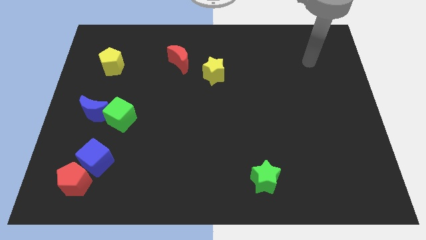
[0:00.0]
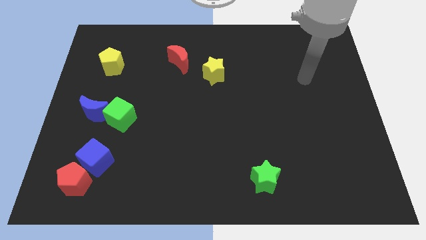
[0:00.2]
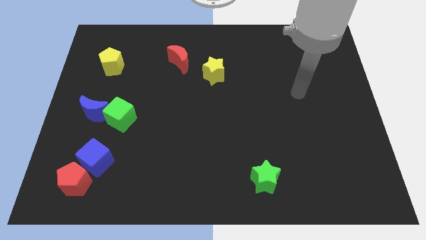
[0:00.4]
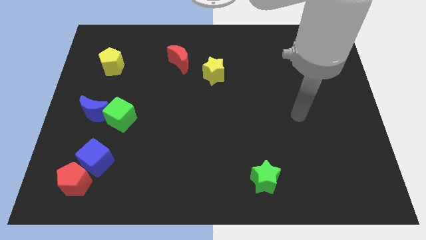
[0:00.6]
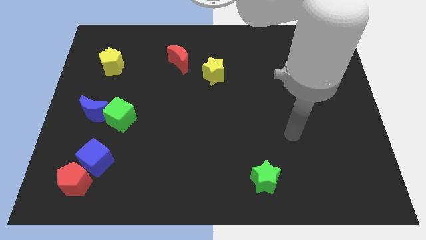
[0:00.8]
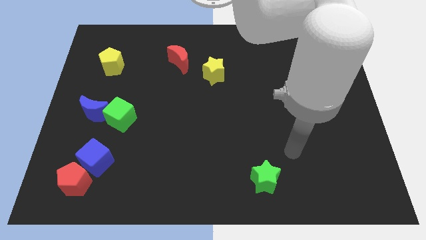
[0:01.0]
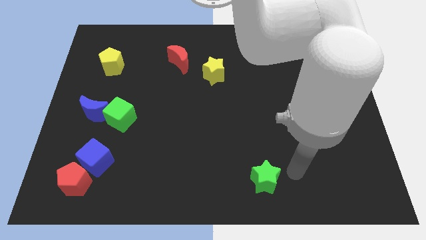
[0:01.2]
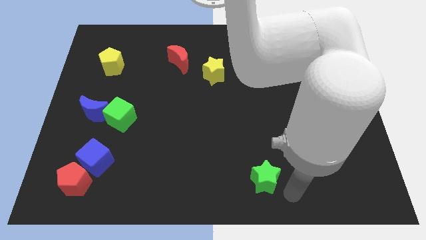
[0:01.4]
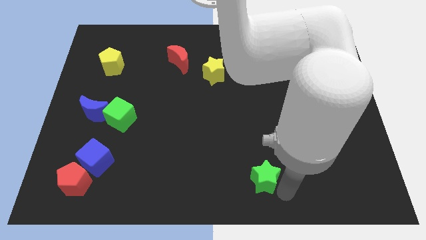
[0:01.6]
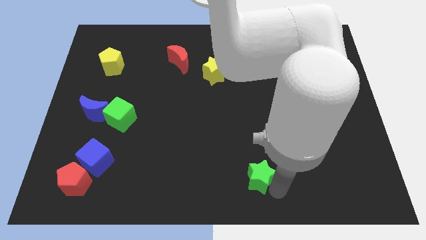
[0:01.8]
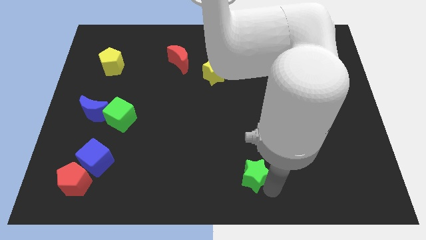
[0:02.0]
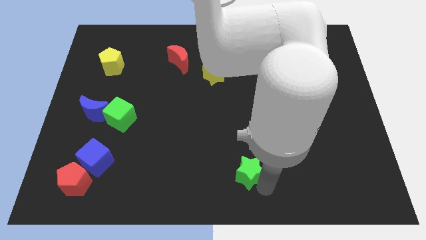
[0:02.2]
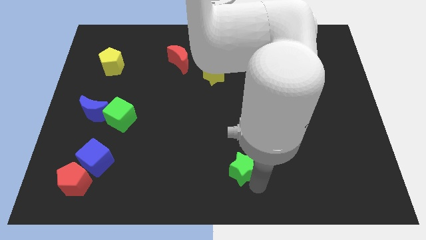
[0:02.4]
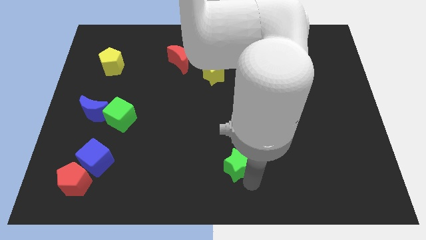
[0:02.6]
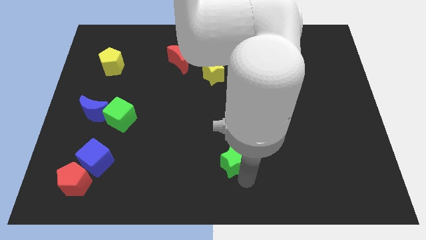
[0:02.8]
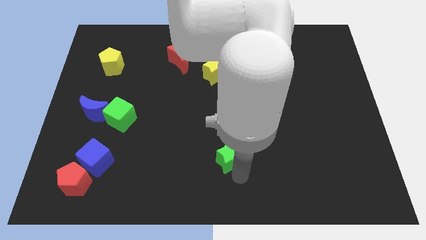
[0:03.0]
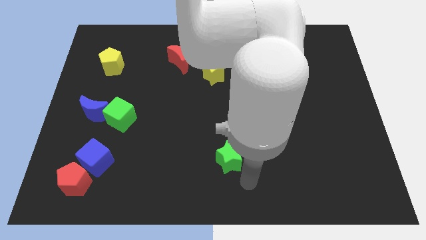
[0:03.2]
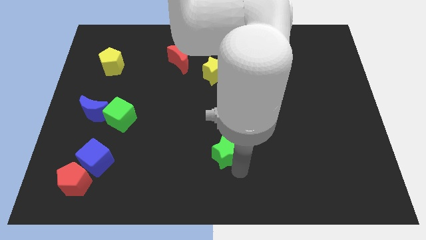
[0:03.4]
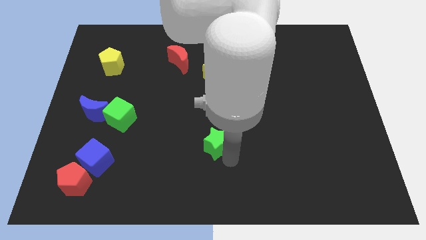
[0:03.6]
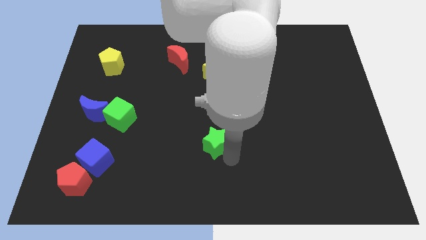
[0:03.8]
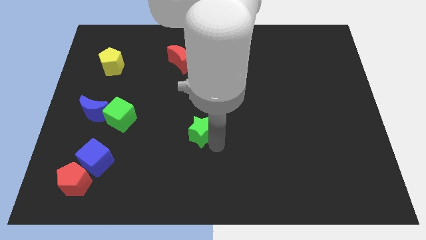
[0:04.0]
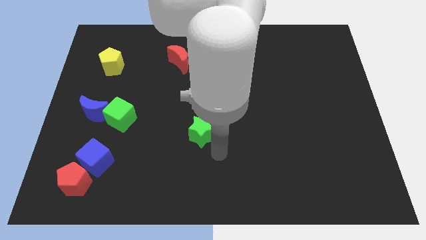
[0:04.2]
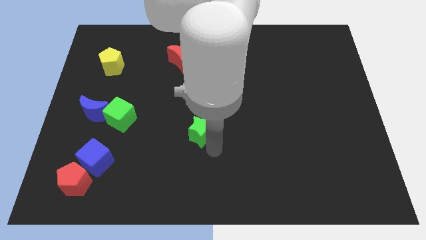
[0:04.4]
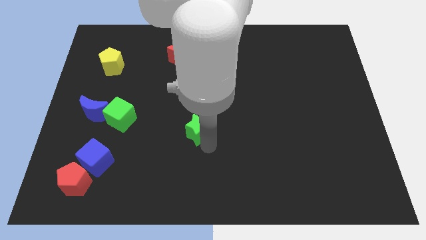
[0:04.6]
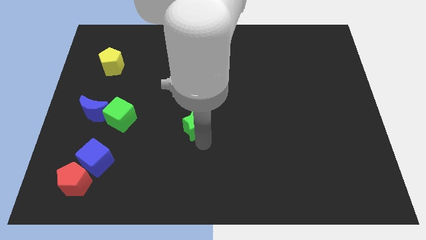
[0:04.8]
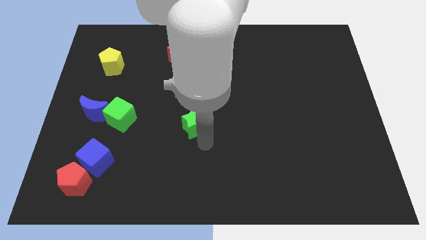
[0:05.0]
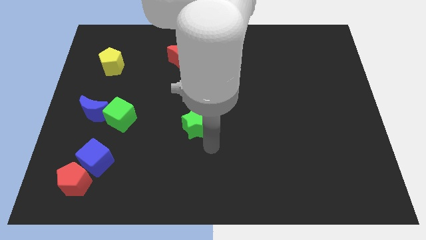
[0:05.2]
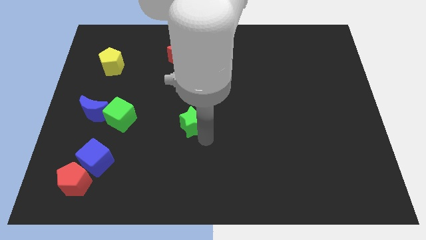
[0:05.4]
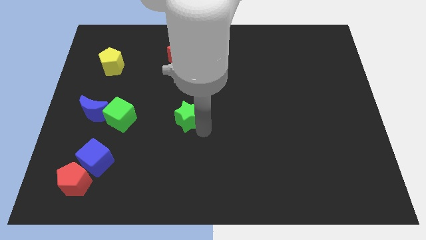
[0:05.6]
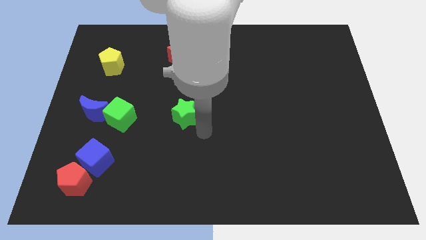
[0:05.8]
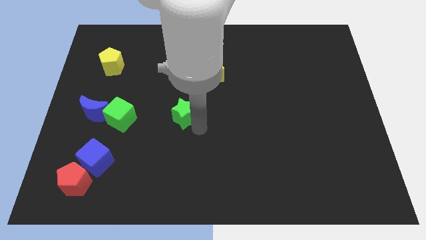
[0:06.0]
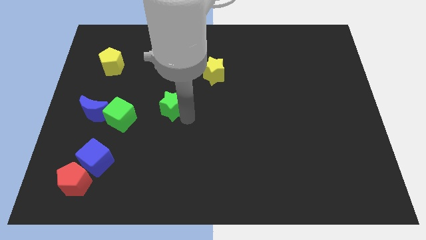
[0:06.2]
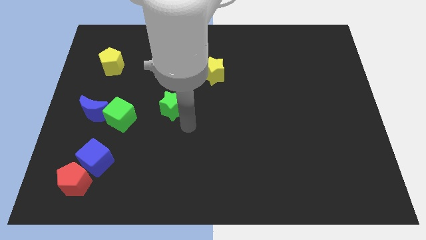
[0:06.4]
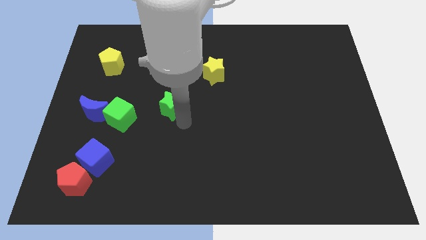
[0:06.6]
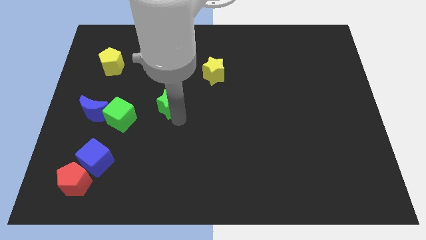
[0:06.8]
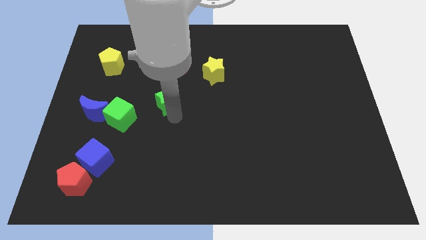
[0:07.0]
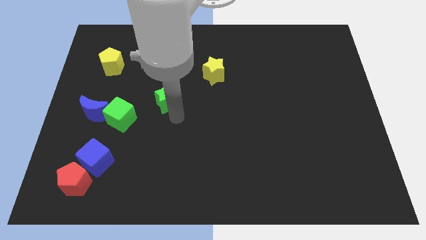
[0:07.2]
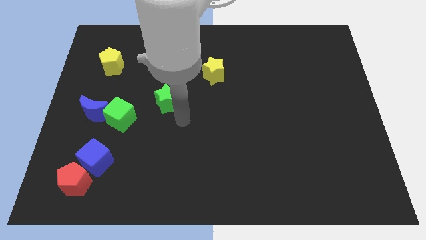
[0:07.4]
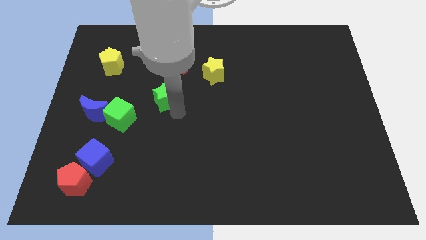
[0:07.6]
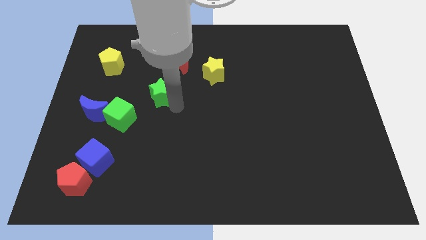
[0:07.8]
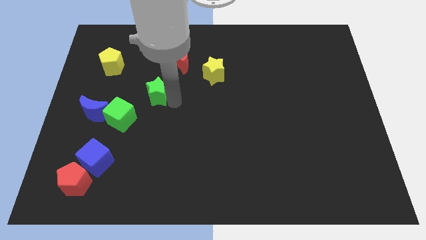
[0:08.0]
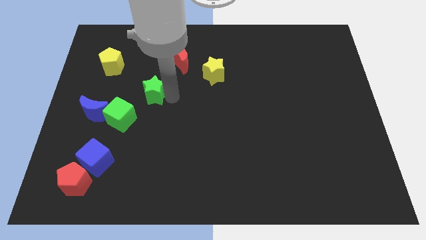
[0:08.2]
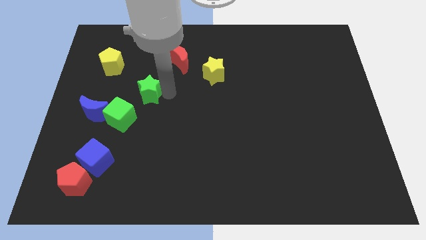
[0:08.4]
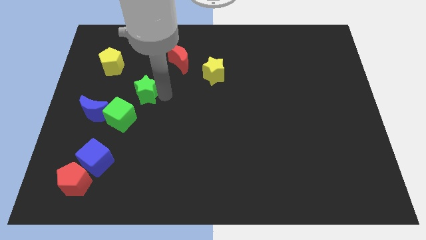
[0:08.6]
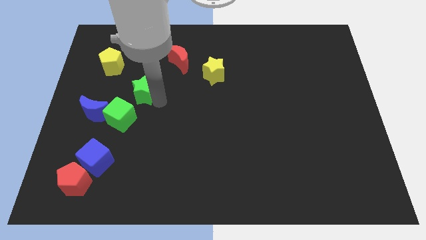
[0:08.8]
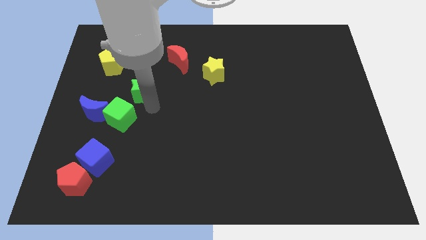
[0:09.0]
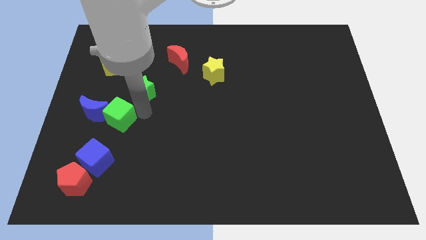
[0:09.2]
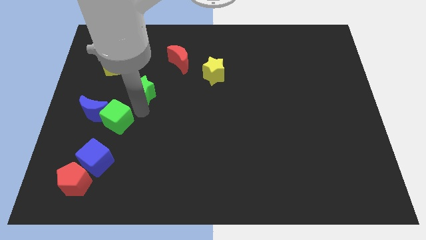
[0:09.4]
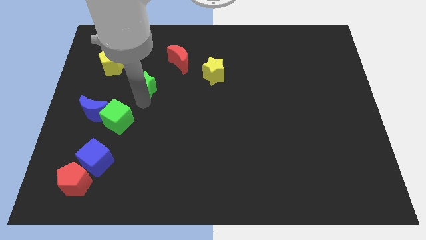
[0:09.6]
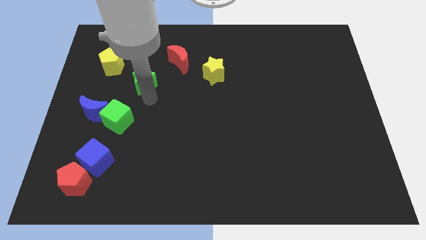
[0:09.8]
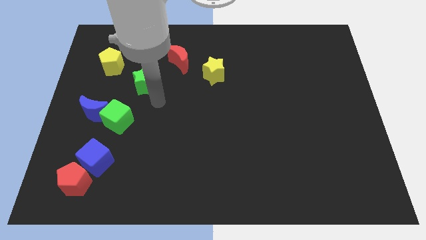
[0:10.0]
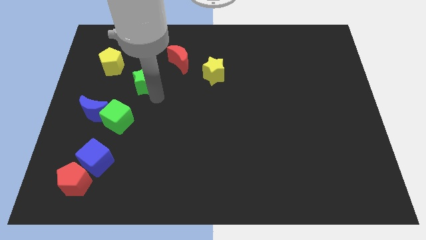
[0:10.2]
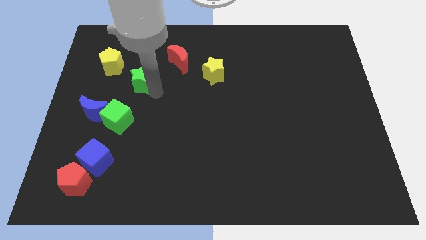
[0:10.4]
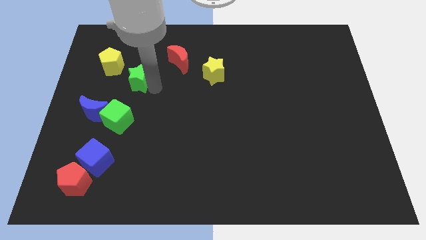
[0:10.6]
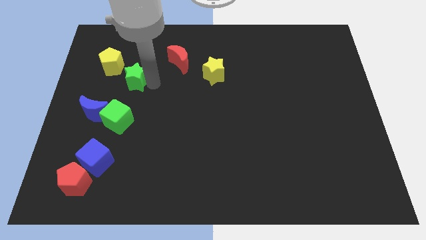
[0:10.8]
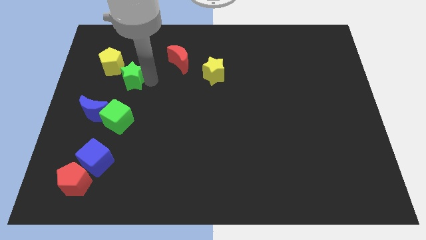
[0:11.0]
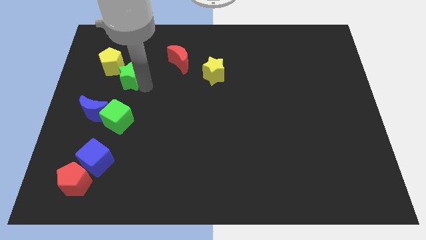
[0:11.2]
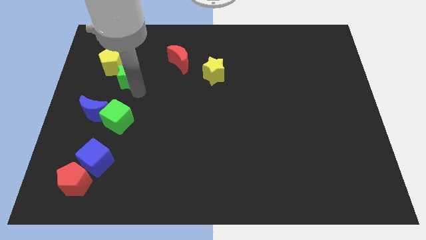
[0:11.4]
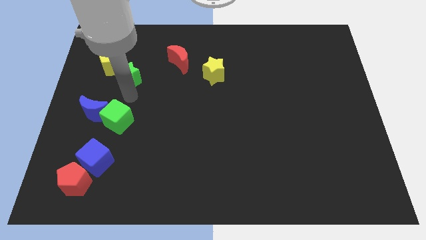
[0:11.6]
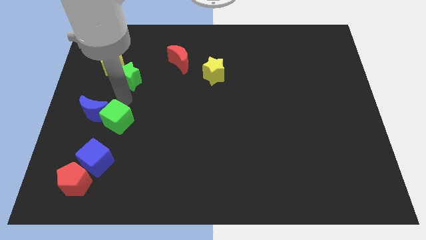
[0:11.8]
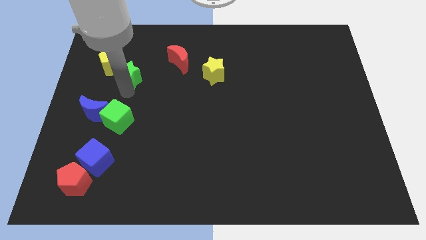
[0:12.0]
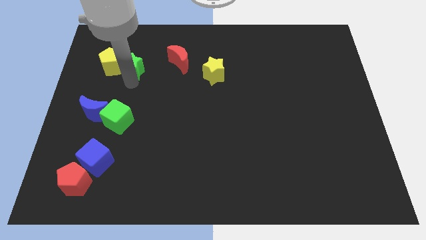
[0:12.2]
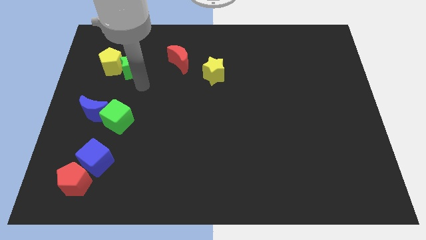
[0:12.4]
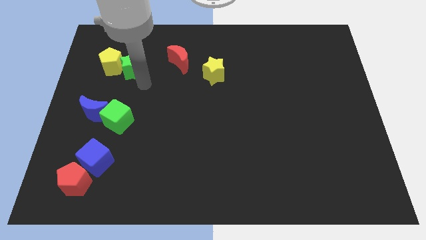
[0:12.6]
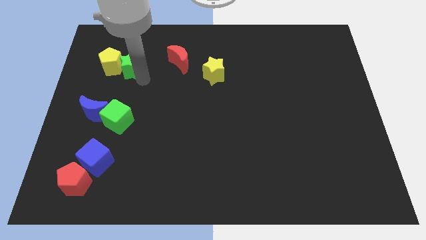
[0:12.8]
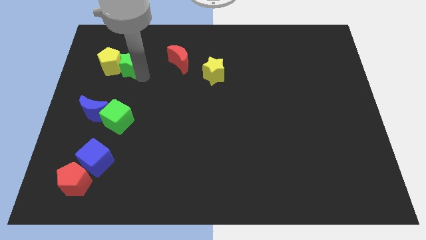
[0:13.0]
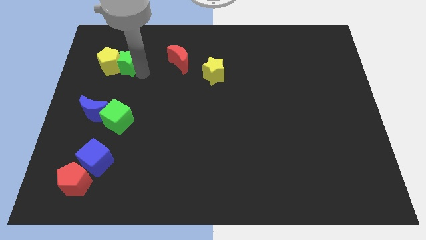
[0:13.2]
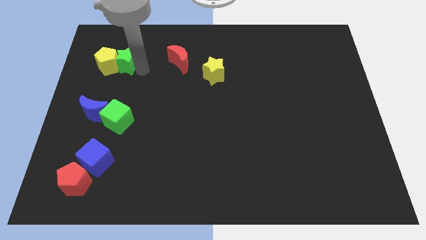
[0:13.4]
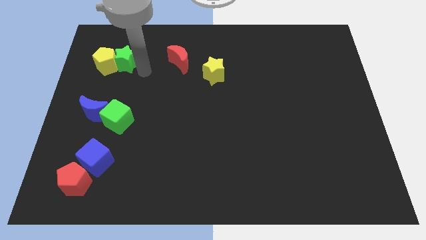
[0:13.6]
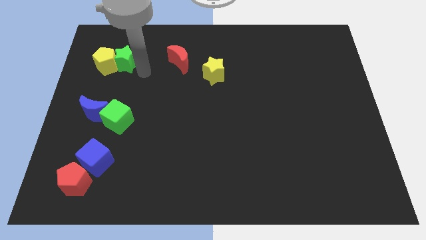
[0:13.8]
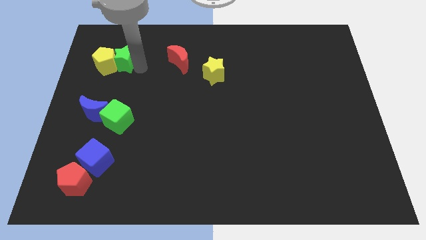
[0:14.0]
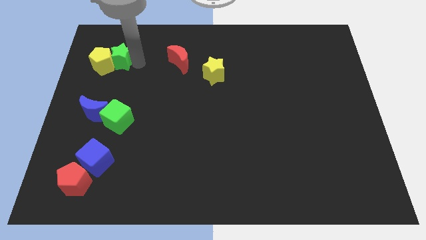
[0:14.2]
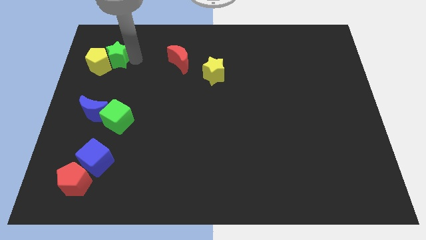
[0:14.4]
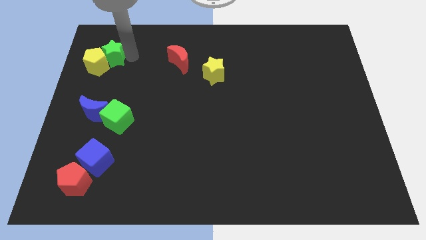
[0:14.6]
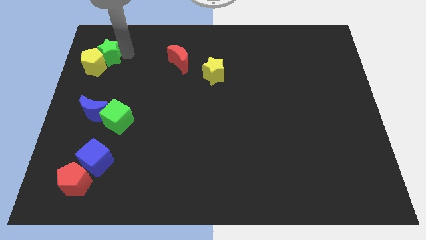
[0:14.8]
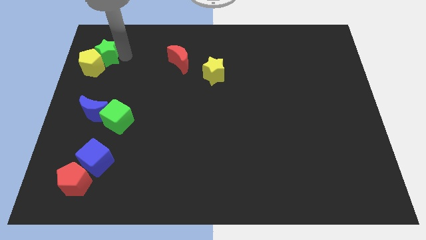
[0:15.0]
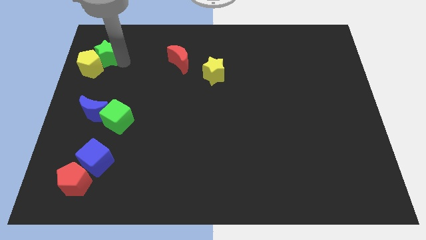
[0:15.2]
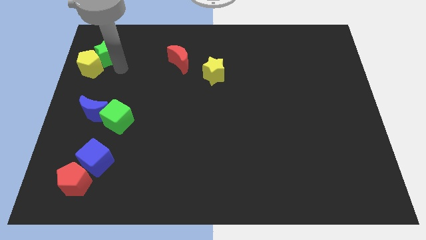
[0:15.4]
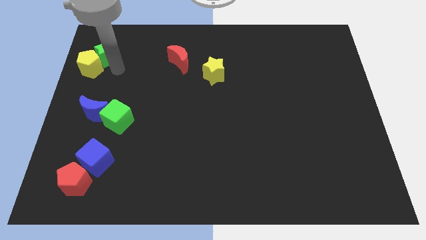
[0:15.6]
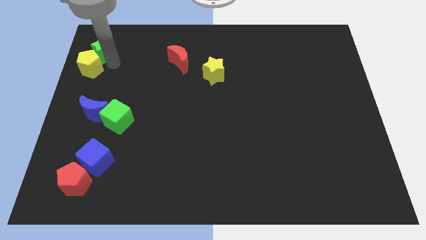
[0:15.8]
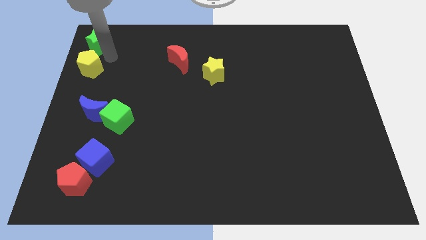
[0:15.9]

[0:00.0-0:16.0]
put the green star to the top left corner
